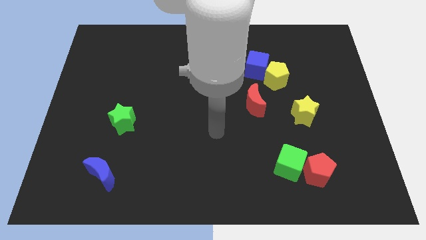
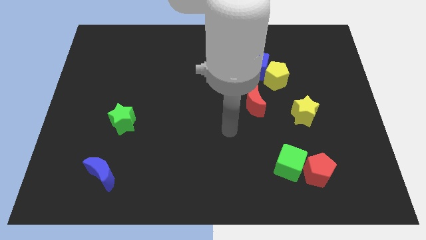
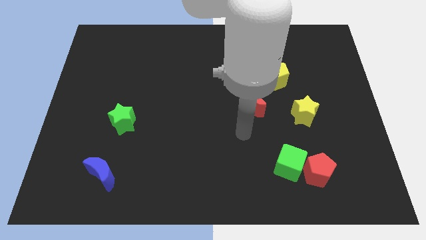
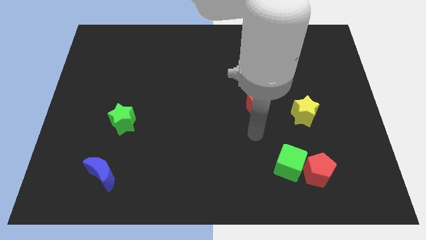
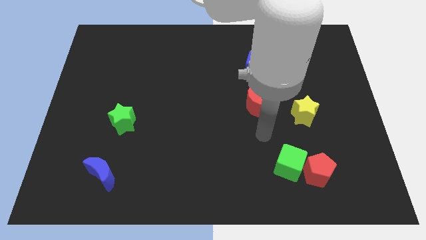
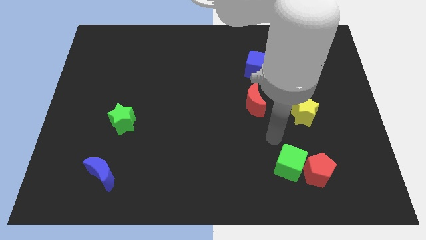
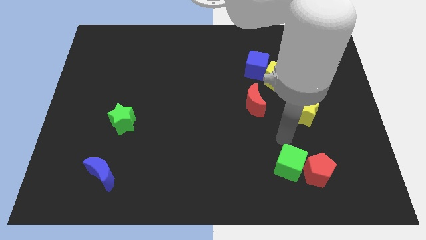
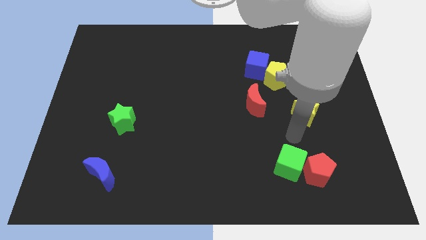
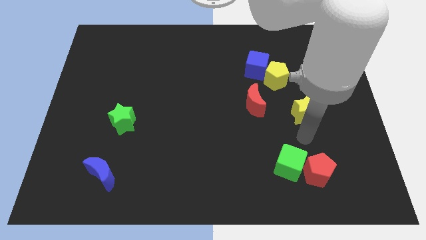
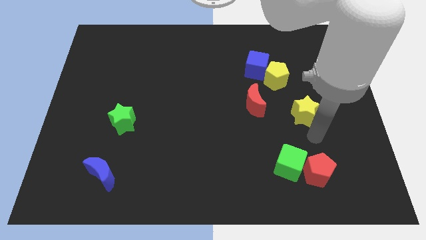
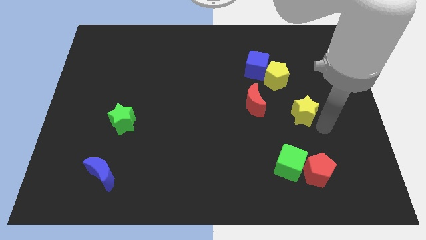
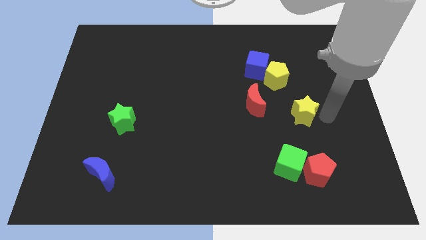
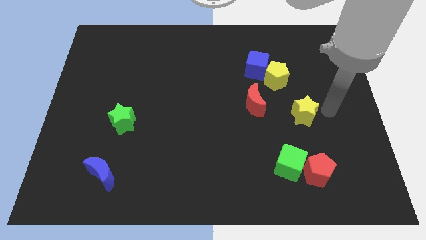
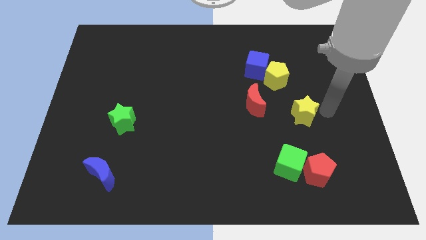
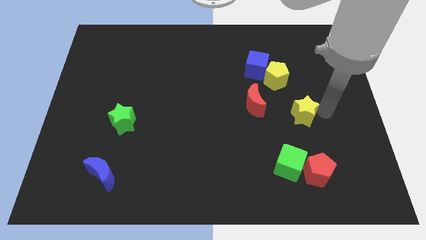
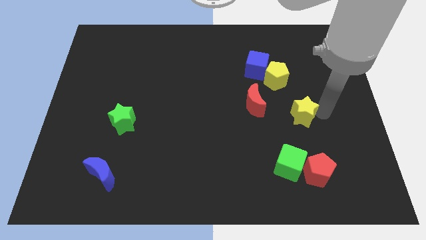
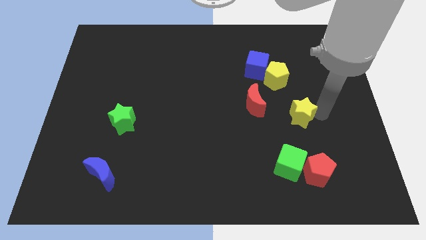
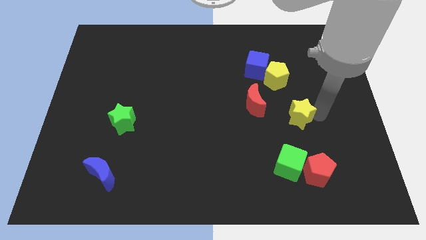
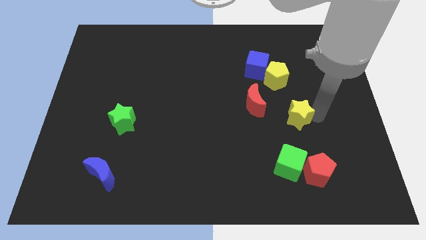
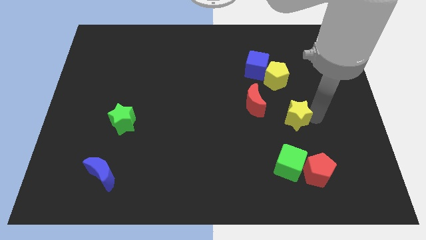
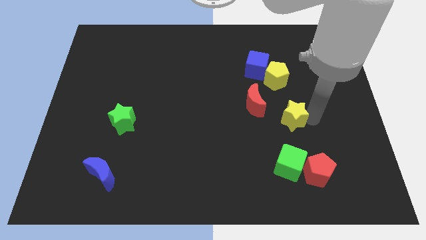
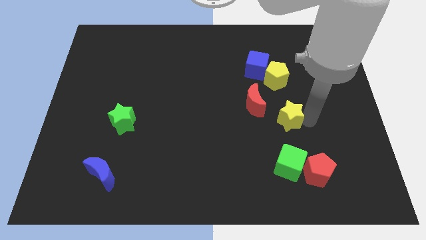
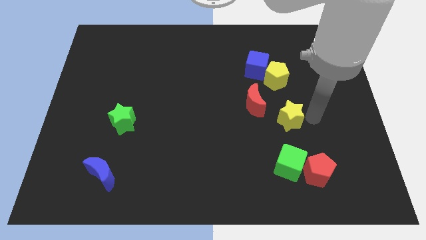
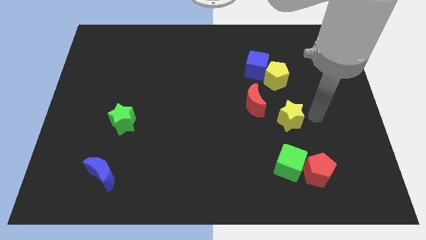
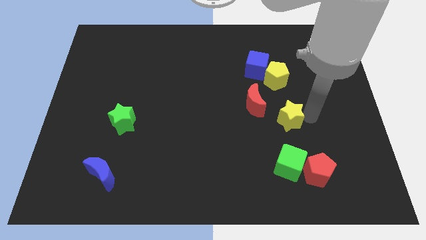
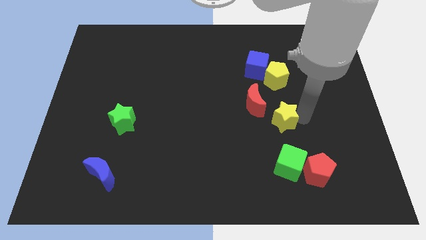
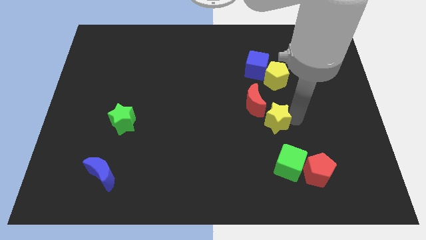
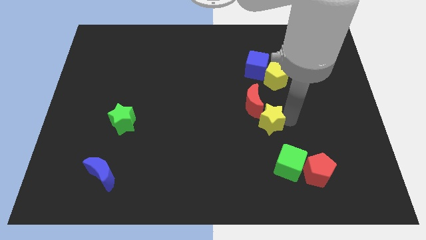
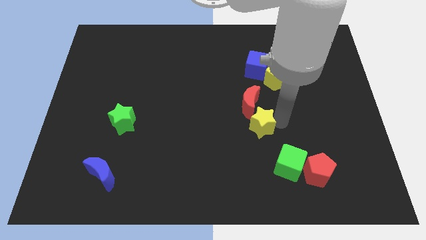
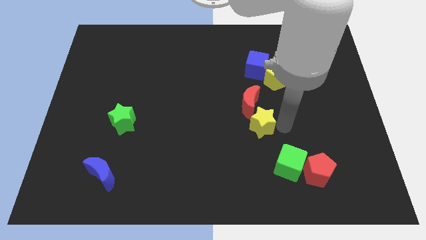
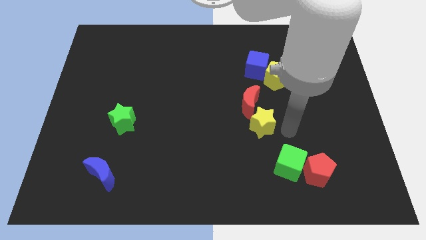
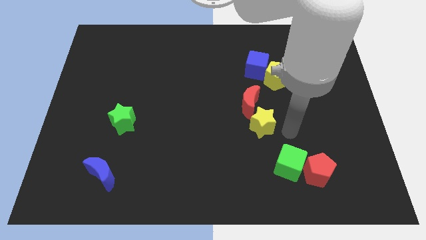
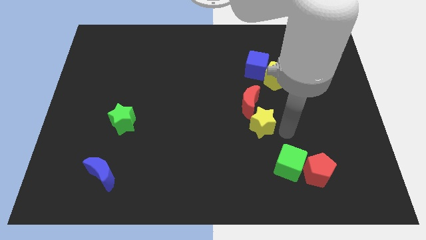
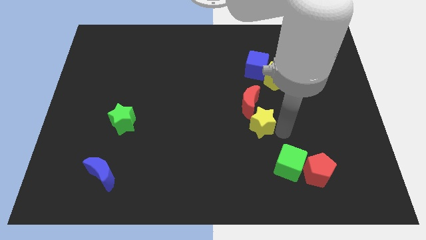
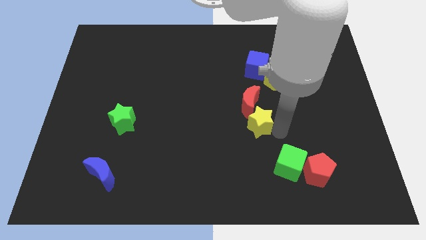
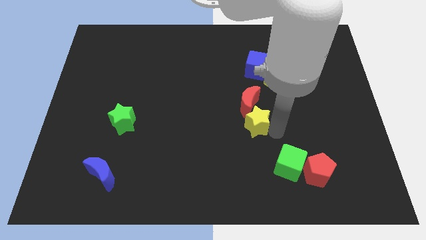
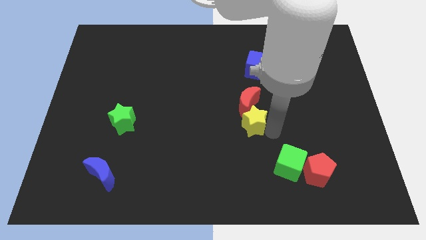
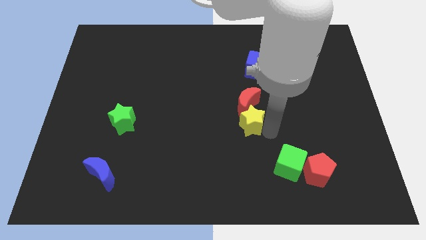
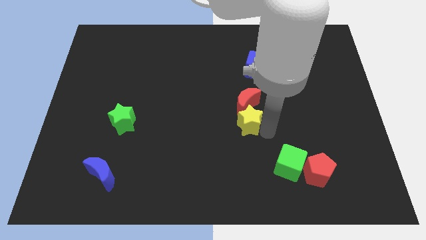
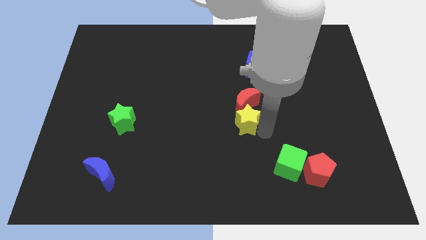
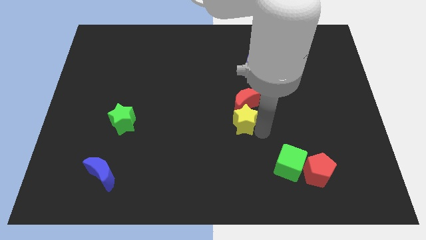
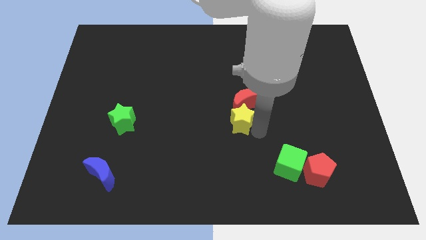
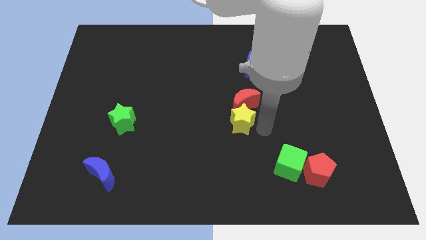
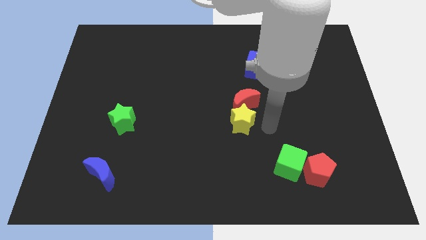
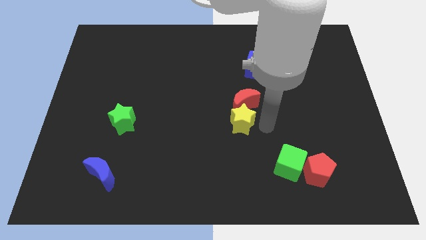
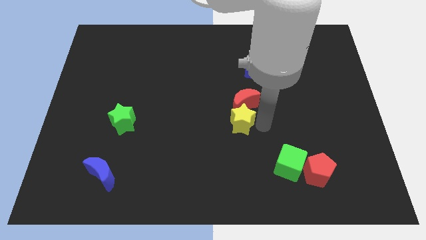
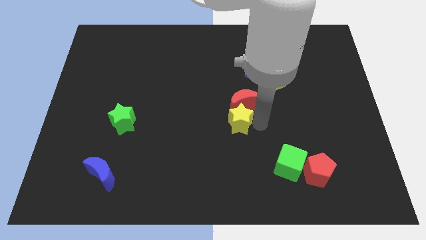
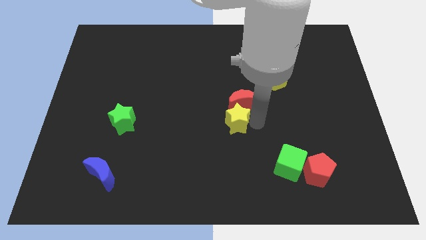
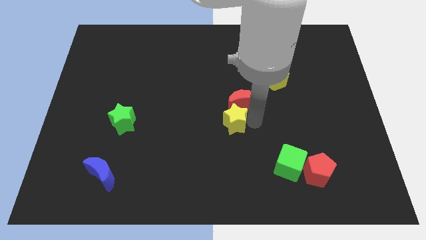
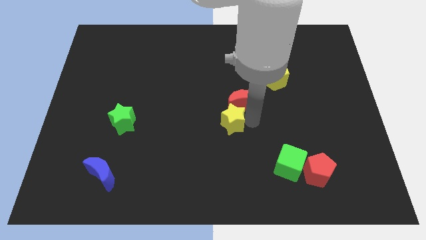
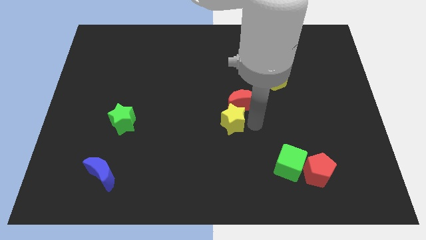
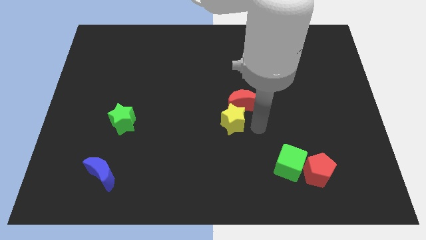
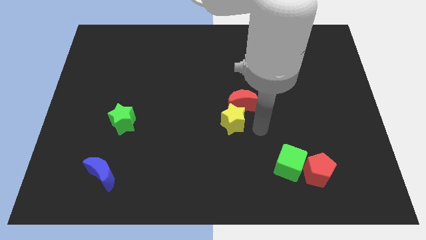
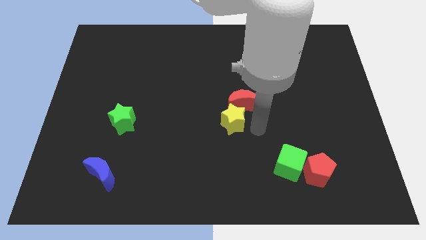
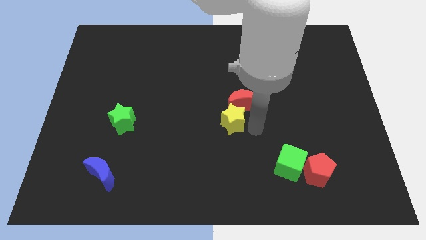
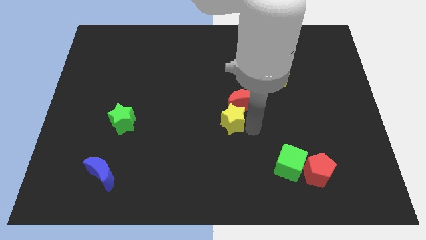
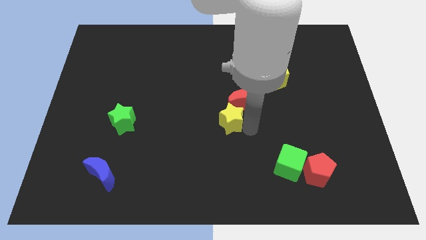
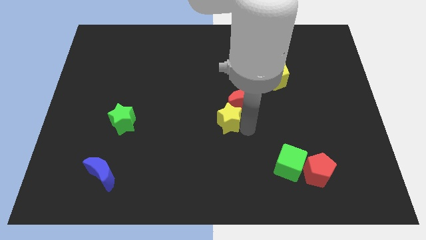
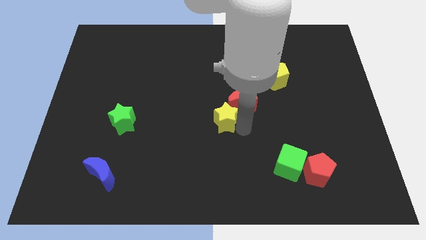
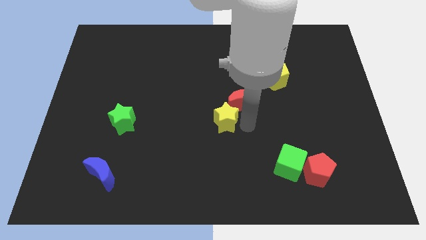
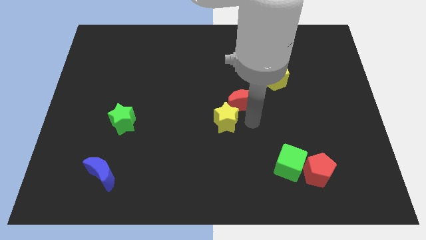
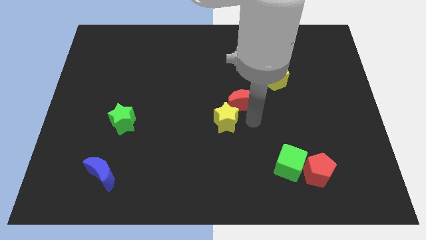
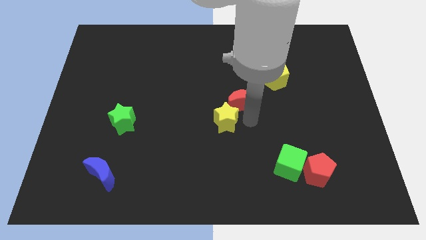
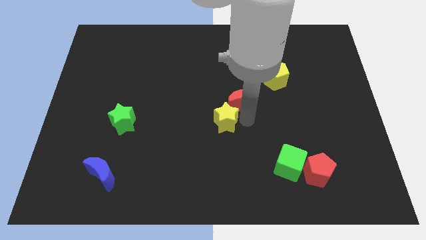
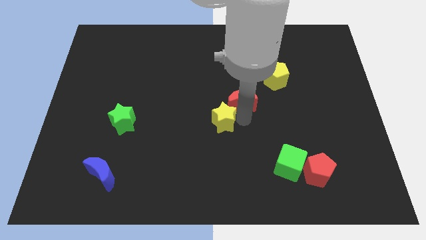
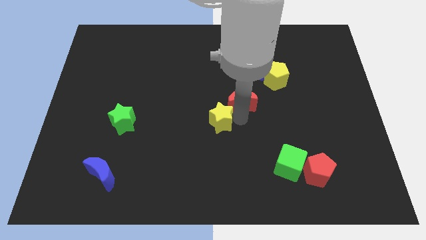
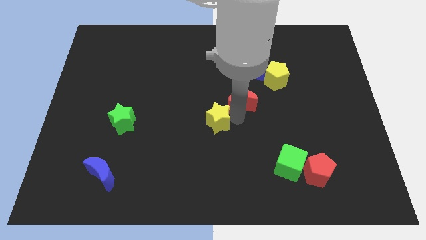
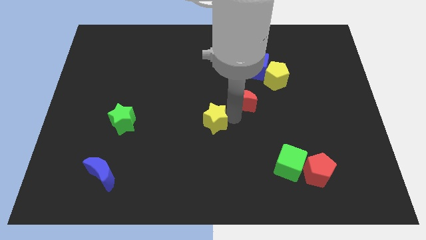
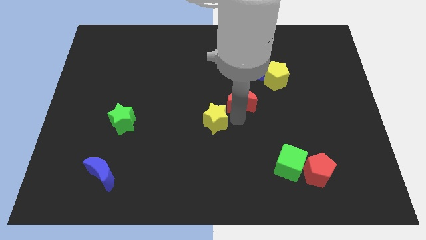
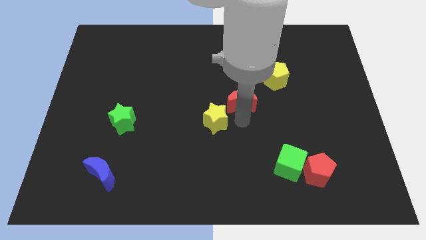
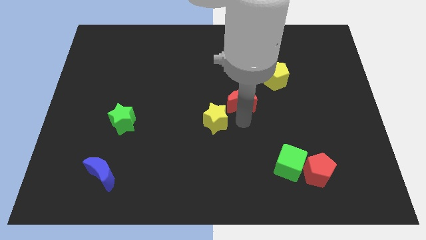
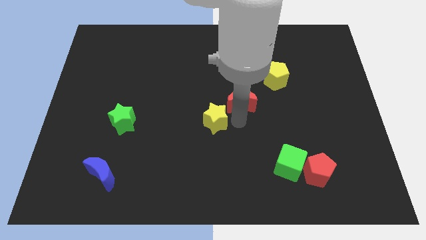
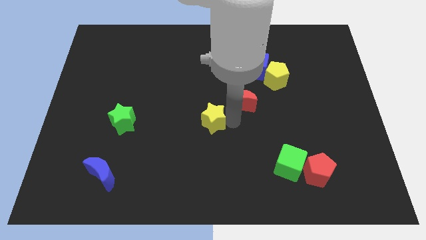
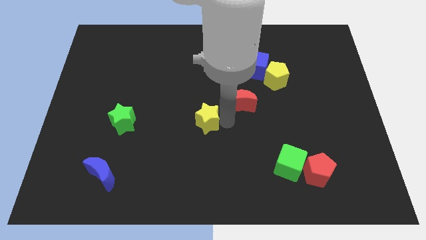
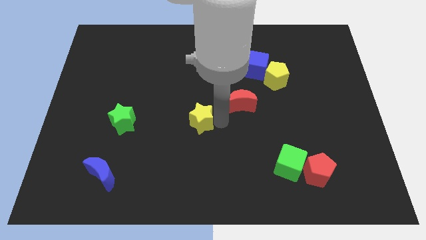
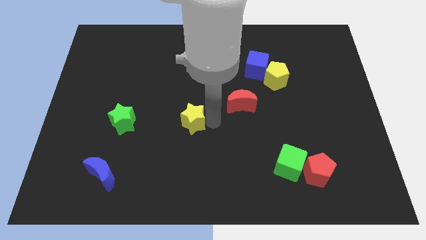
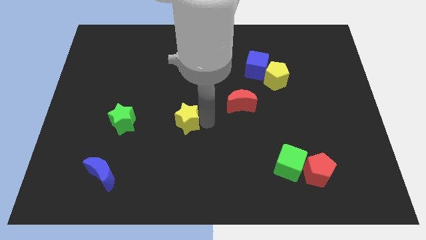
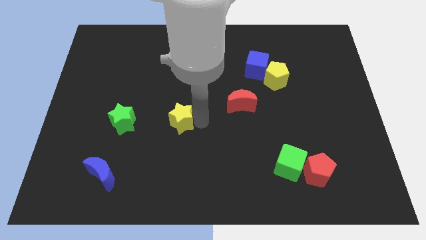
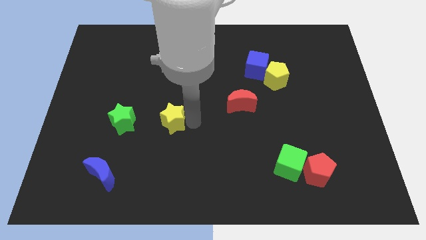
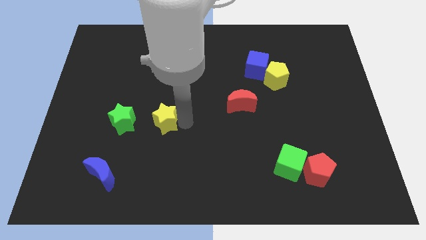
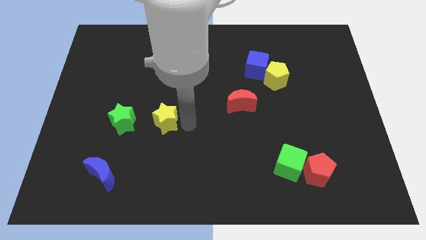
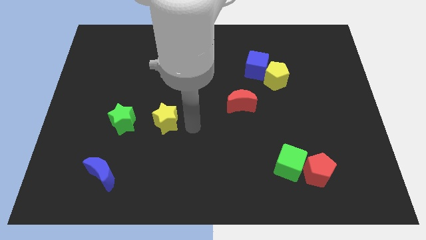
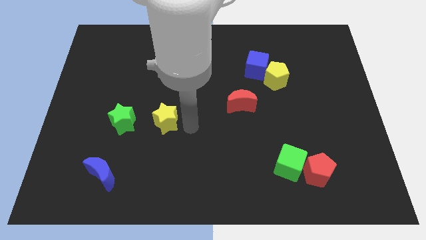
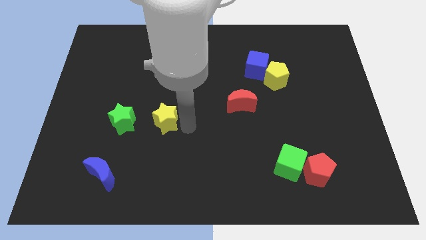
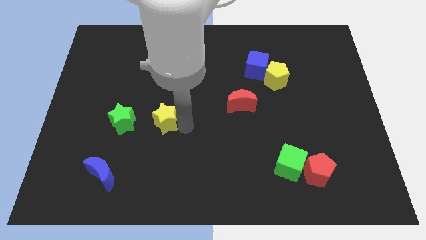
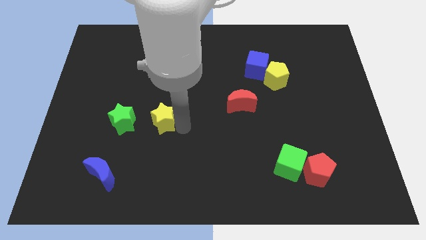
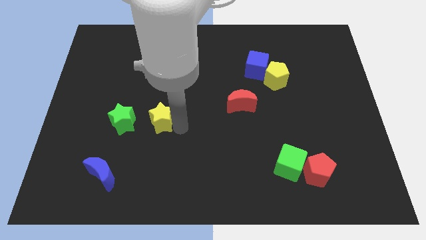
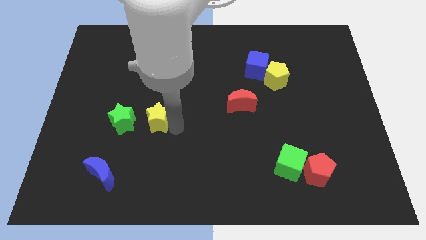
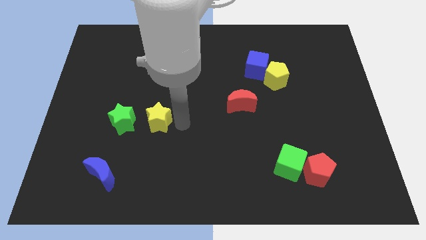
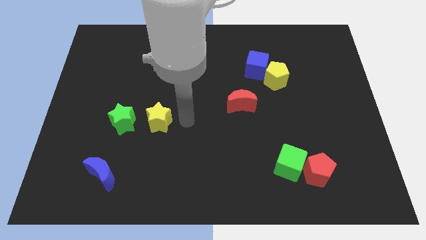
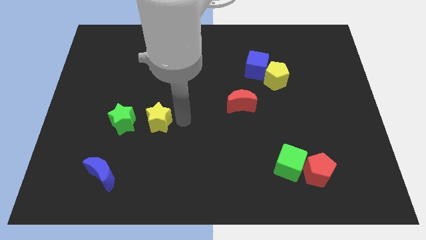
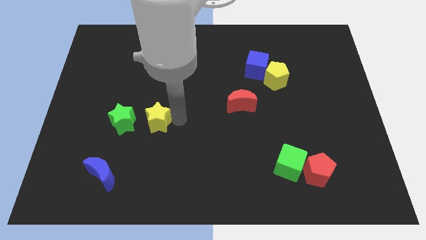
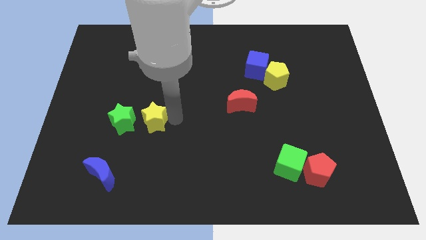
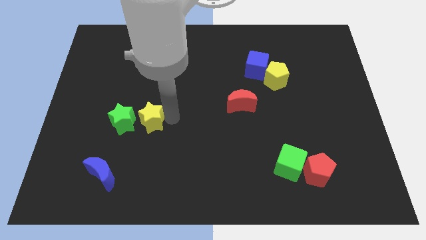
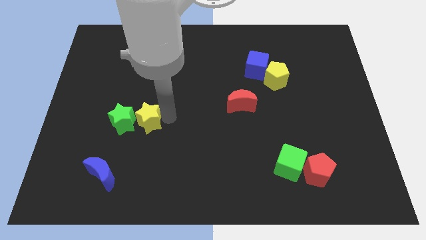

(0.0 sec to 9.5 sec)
slide the yellow star towards the green star
